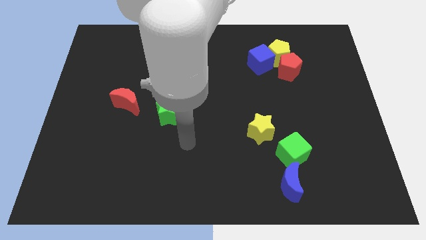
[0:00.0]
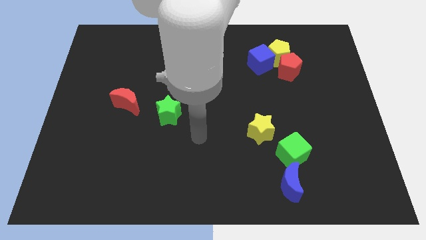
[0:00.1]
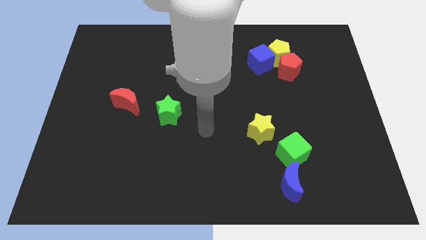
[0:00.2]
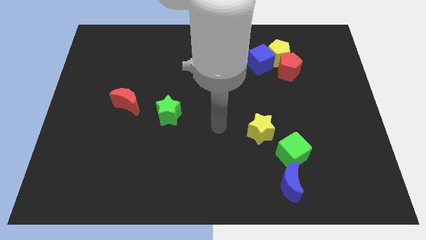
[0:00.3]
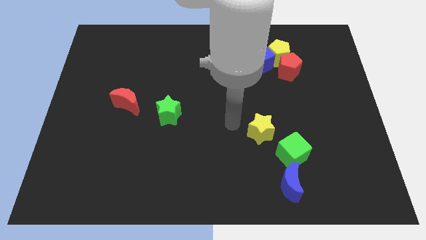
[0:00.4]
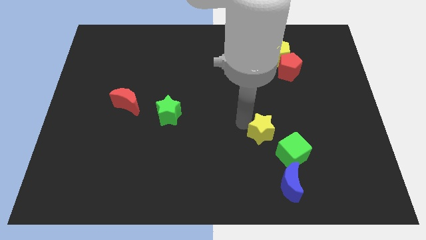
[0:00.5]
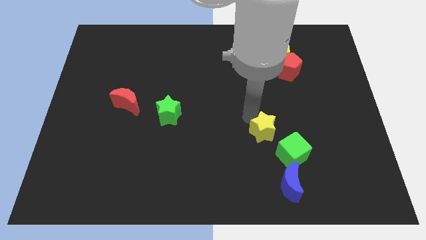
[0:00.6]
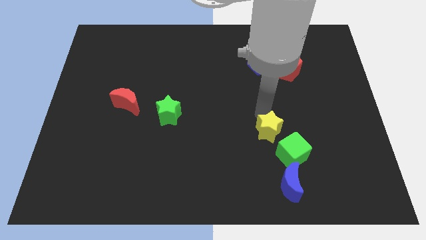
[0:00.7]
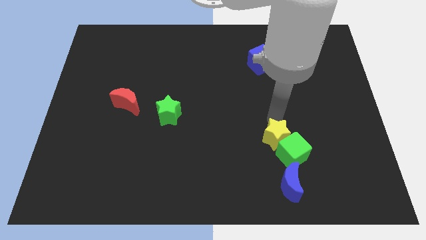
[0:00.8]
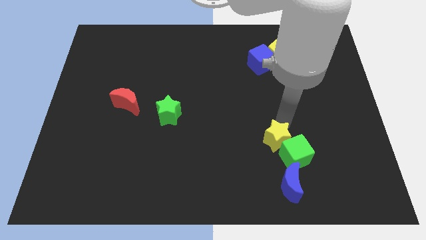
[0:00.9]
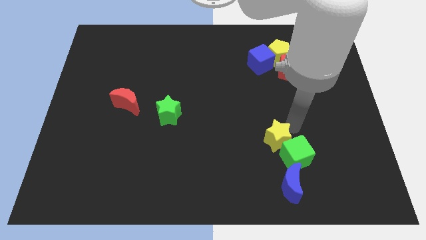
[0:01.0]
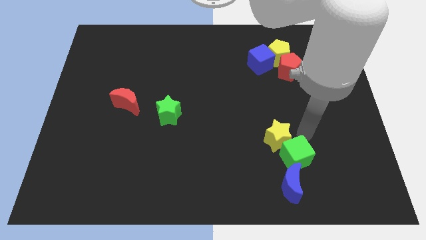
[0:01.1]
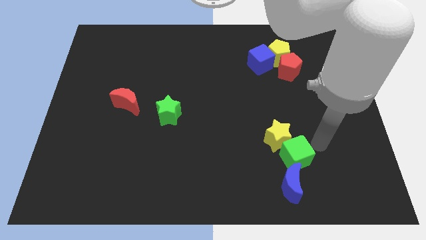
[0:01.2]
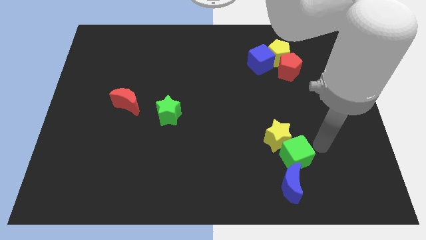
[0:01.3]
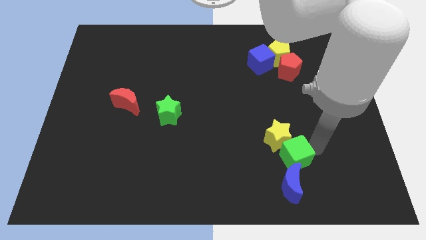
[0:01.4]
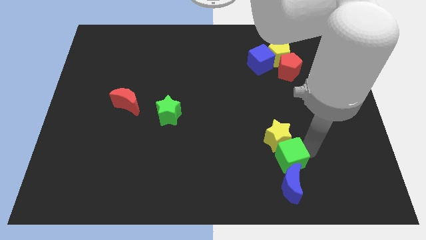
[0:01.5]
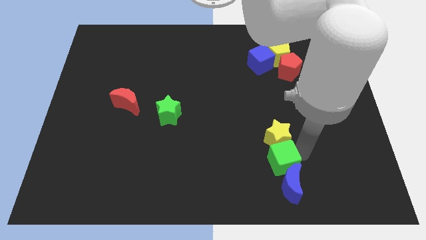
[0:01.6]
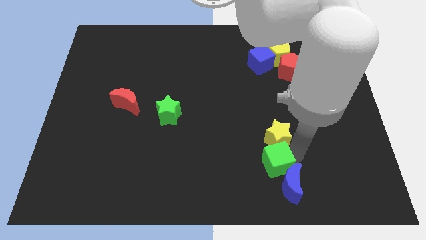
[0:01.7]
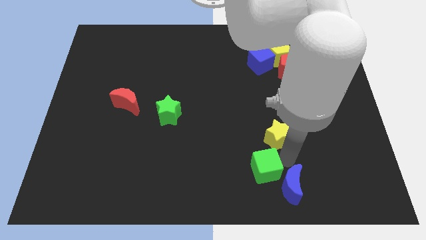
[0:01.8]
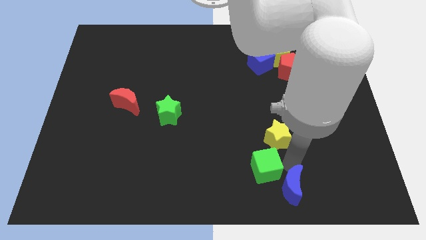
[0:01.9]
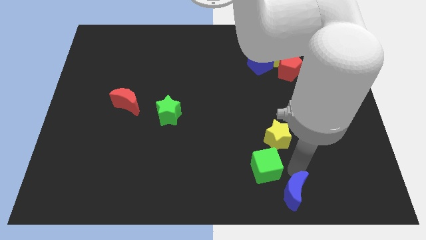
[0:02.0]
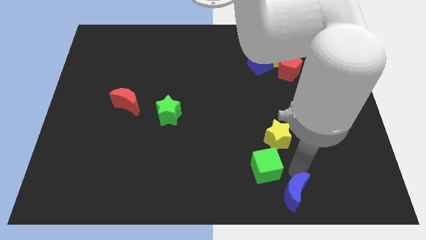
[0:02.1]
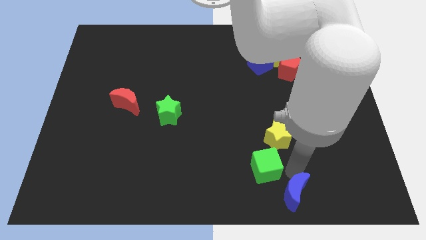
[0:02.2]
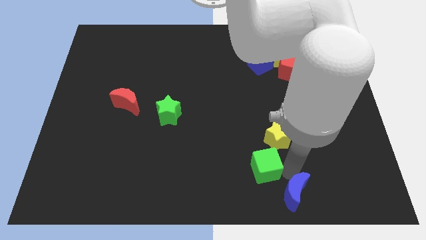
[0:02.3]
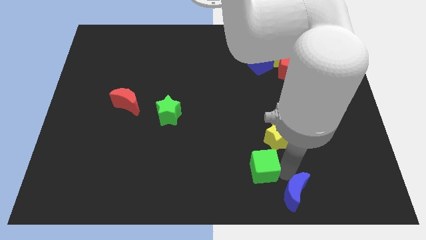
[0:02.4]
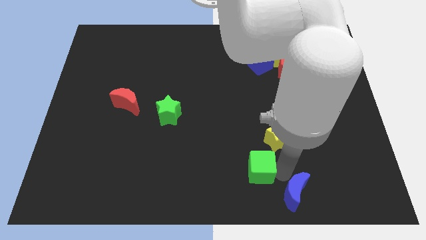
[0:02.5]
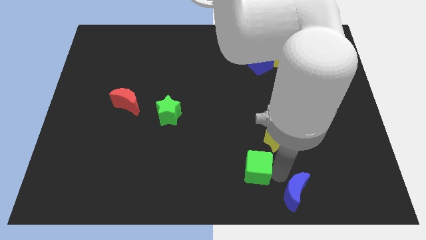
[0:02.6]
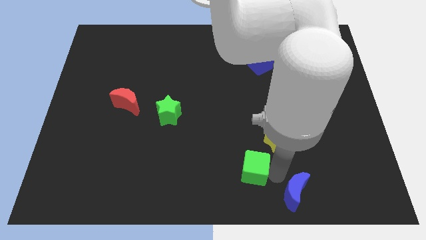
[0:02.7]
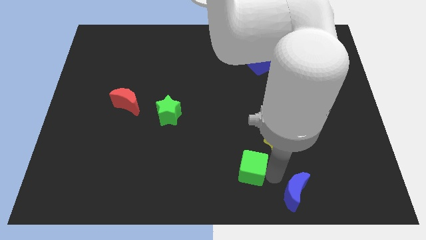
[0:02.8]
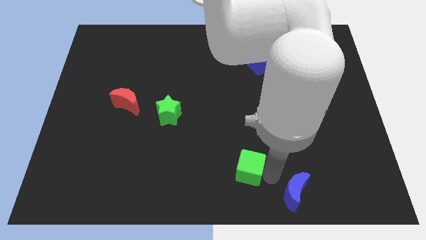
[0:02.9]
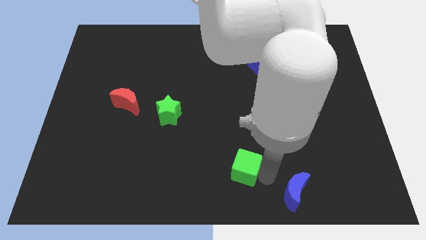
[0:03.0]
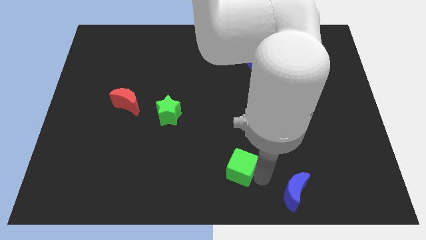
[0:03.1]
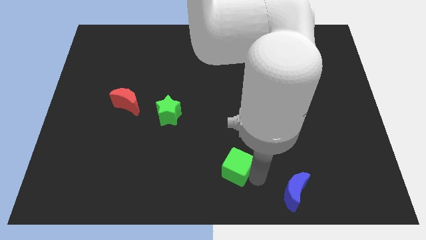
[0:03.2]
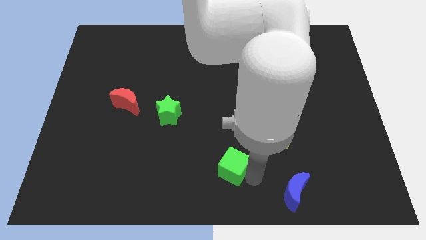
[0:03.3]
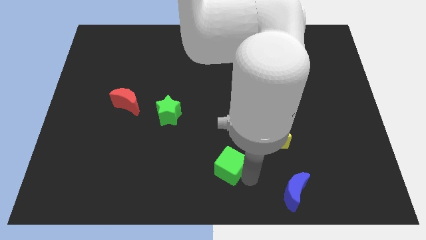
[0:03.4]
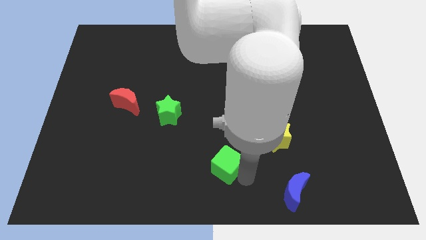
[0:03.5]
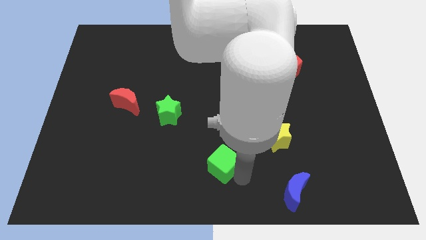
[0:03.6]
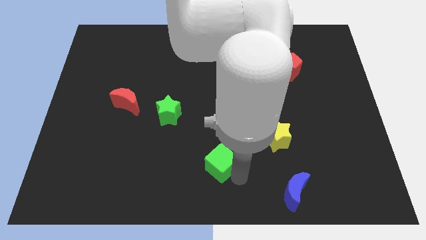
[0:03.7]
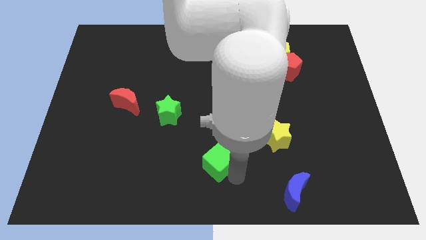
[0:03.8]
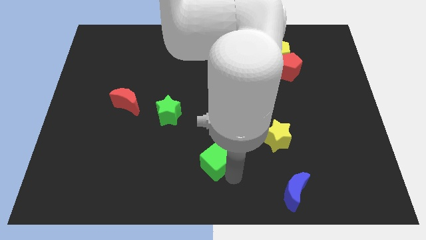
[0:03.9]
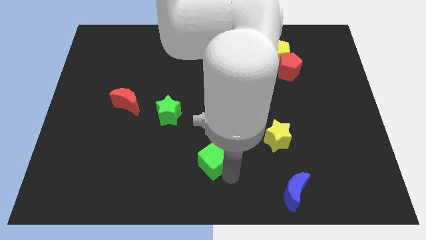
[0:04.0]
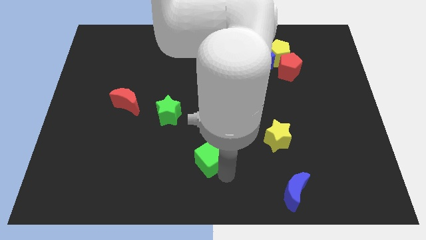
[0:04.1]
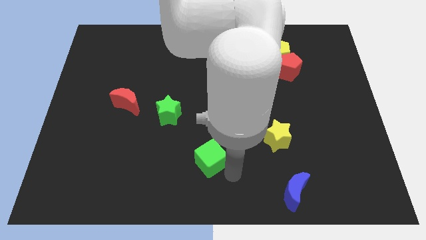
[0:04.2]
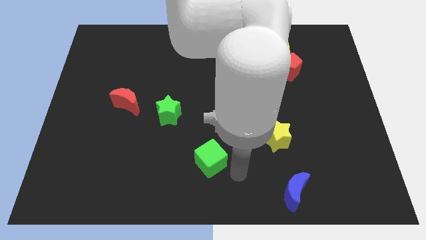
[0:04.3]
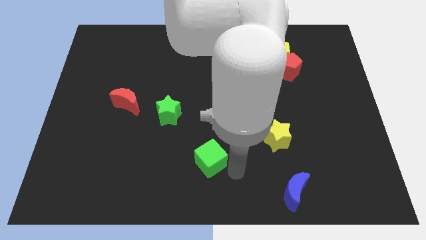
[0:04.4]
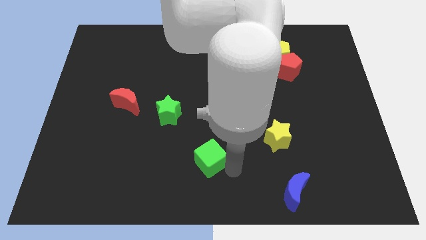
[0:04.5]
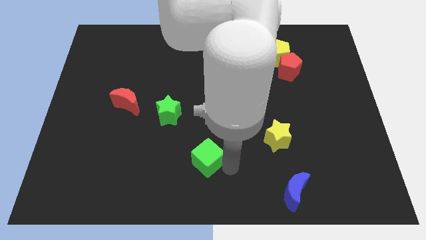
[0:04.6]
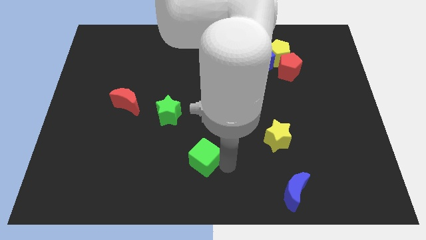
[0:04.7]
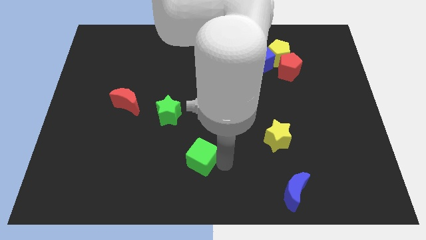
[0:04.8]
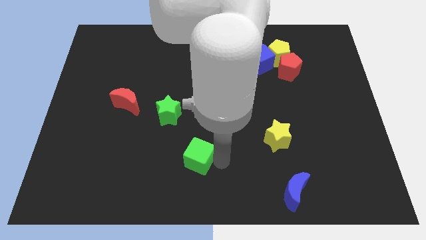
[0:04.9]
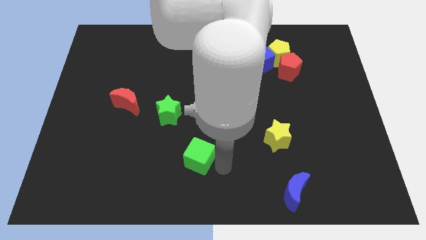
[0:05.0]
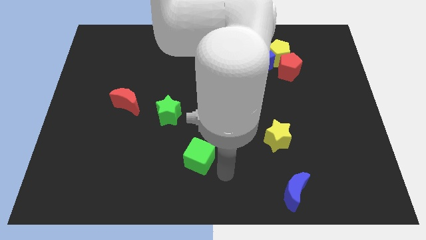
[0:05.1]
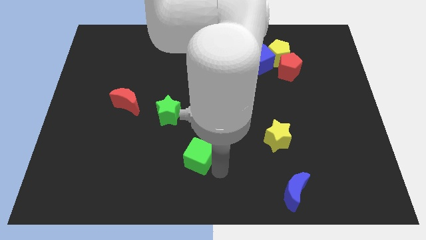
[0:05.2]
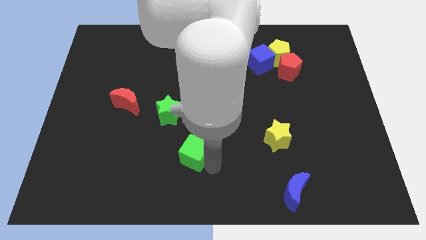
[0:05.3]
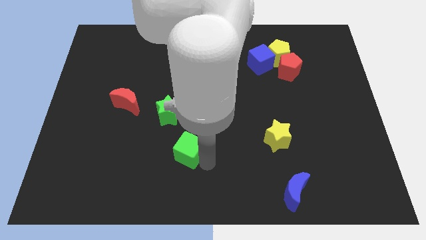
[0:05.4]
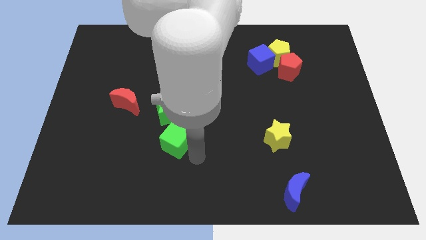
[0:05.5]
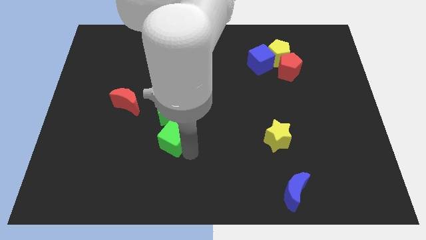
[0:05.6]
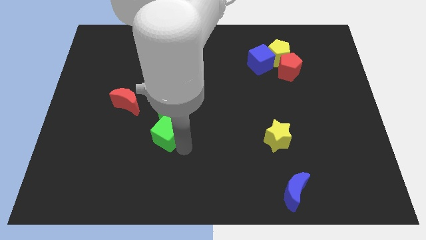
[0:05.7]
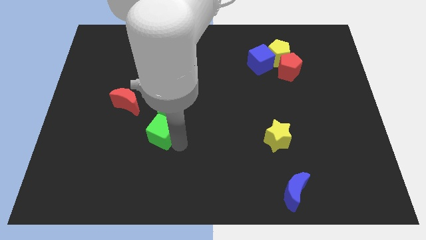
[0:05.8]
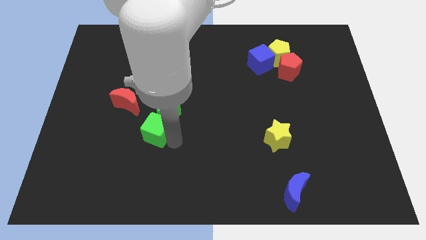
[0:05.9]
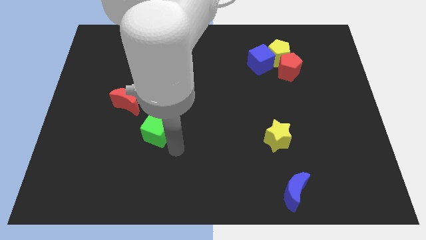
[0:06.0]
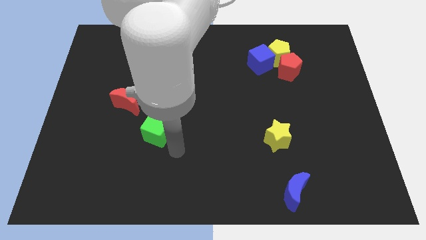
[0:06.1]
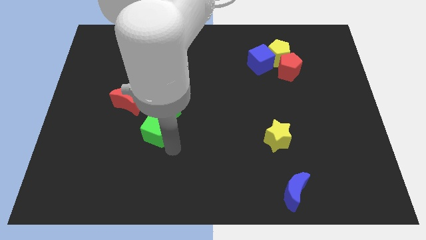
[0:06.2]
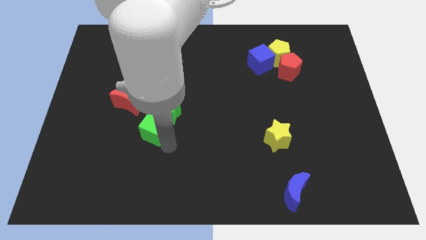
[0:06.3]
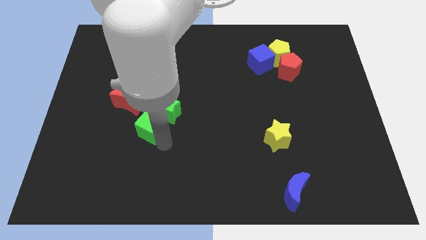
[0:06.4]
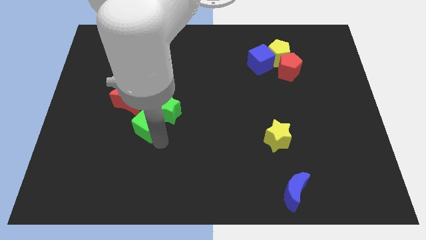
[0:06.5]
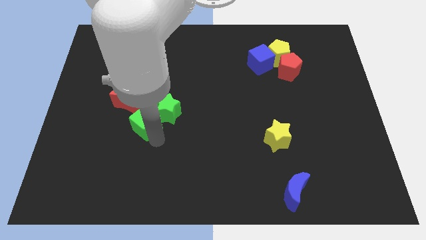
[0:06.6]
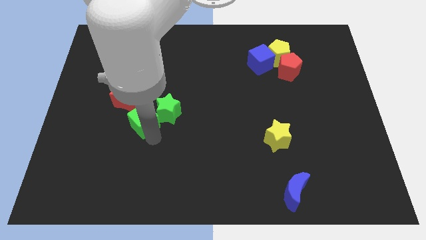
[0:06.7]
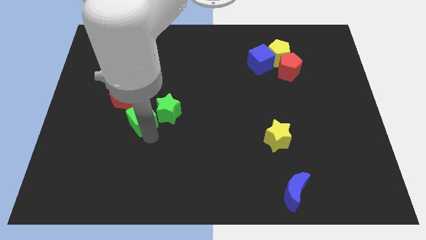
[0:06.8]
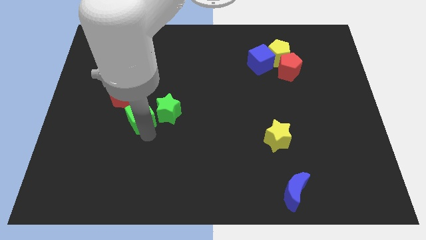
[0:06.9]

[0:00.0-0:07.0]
push the green cube close to the red moon
